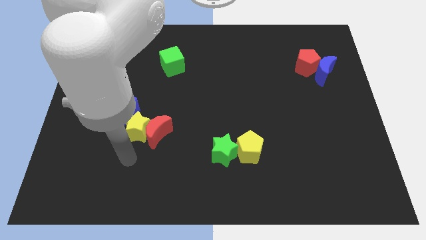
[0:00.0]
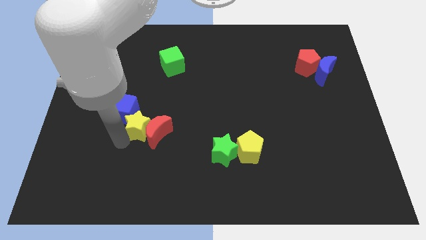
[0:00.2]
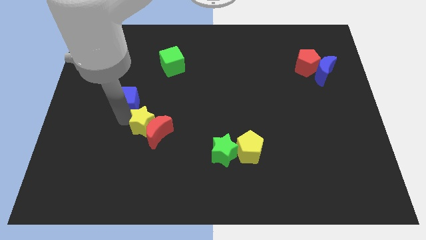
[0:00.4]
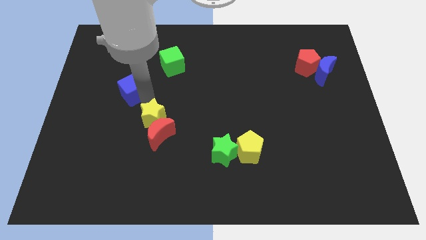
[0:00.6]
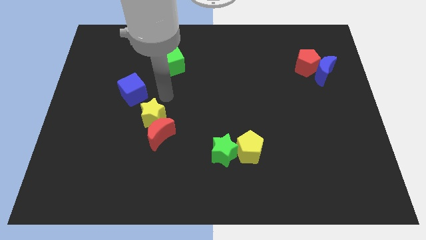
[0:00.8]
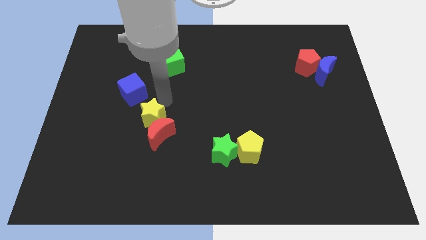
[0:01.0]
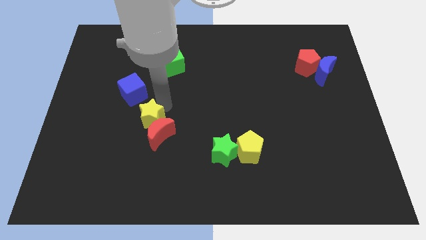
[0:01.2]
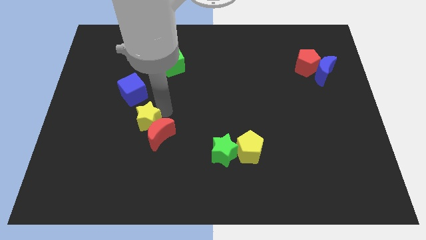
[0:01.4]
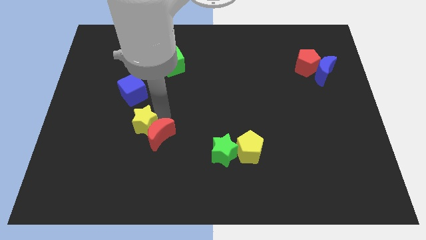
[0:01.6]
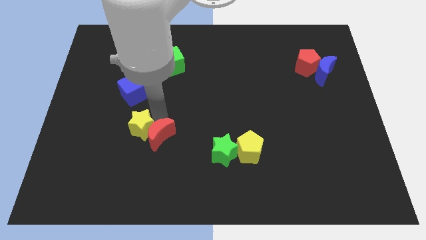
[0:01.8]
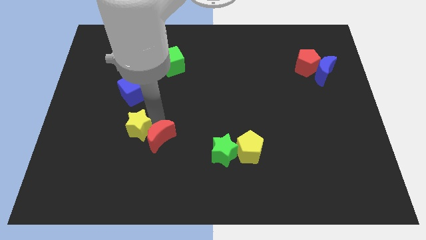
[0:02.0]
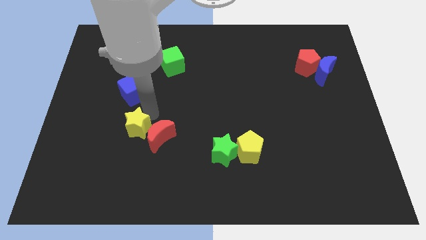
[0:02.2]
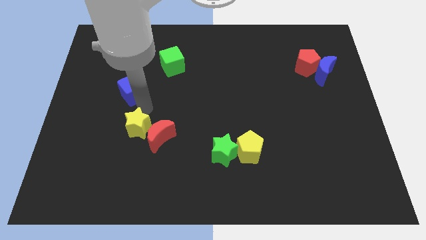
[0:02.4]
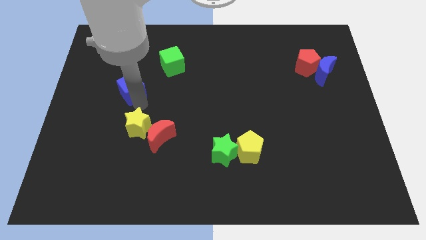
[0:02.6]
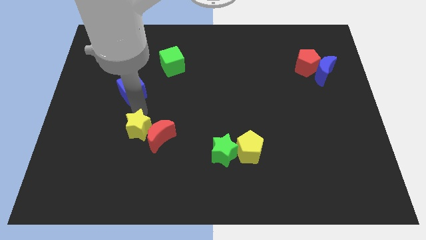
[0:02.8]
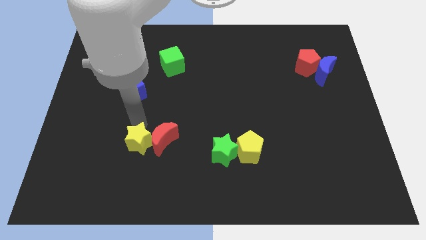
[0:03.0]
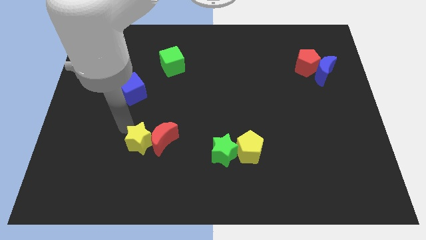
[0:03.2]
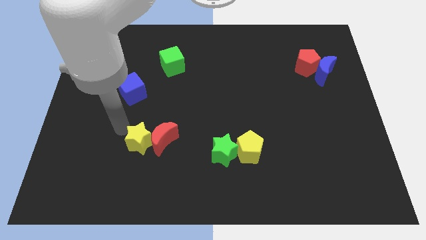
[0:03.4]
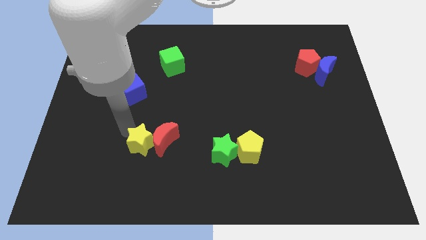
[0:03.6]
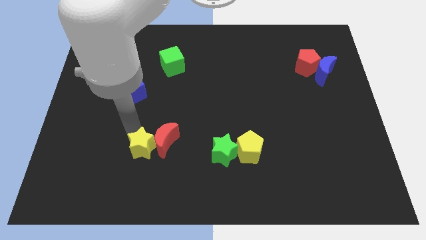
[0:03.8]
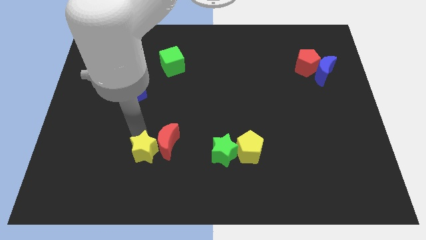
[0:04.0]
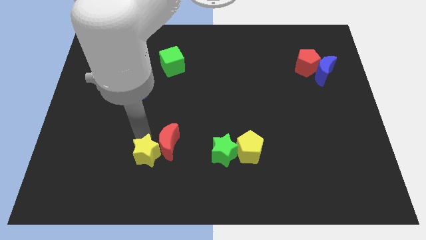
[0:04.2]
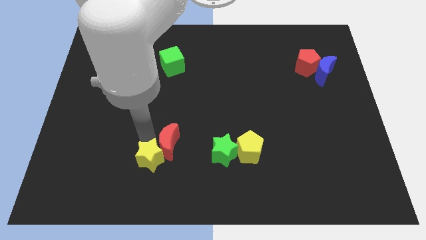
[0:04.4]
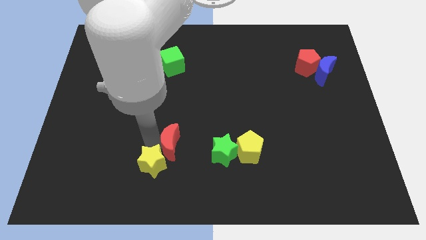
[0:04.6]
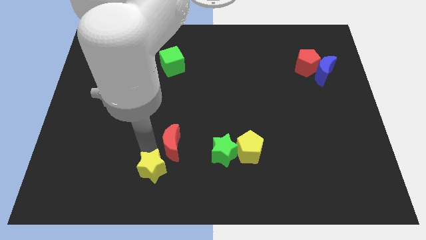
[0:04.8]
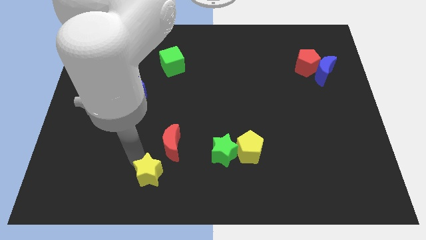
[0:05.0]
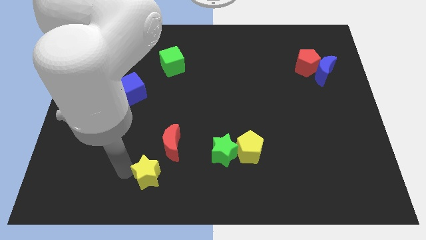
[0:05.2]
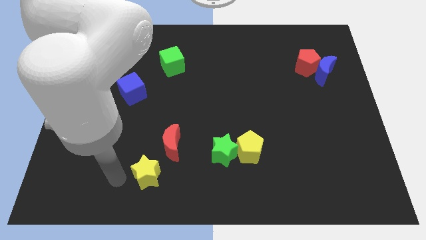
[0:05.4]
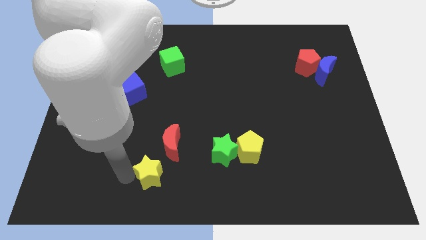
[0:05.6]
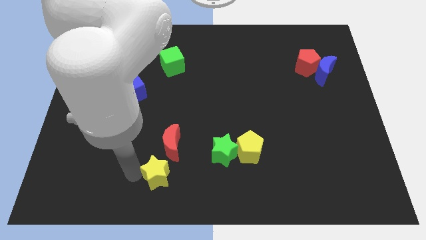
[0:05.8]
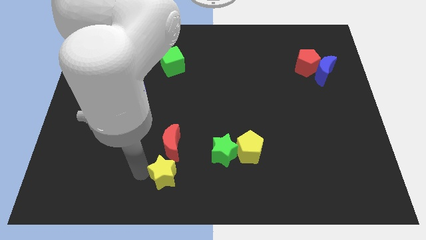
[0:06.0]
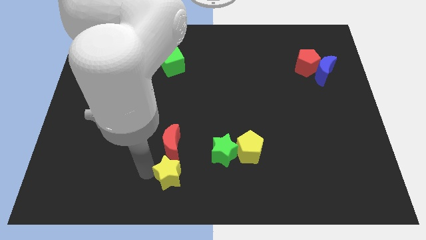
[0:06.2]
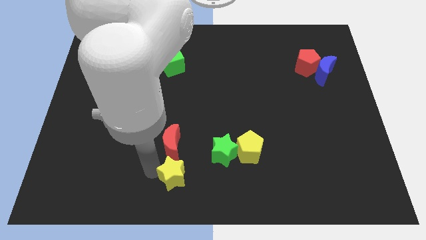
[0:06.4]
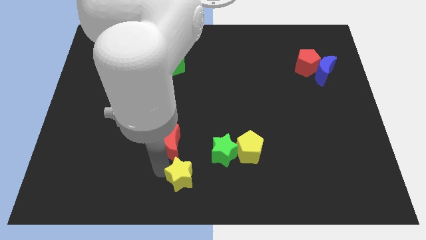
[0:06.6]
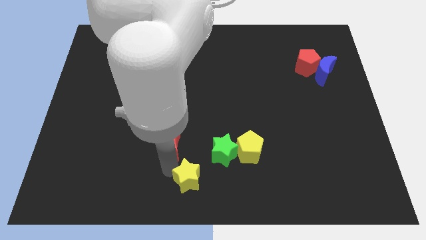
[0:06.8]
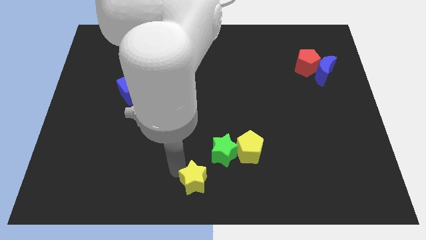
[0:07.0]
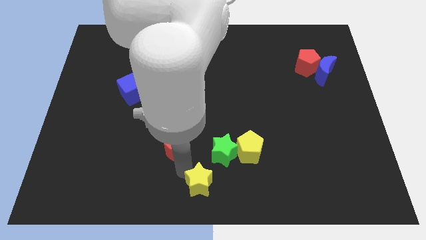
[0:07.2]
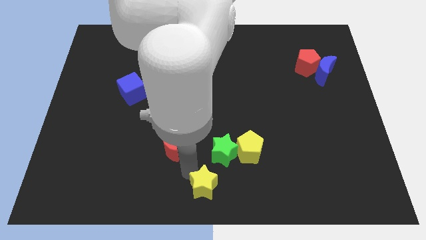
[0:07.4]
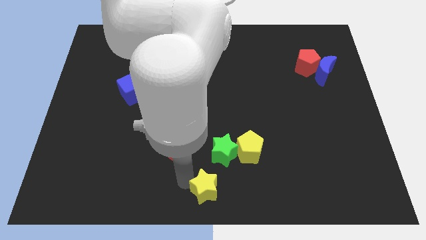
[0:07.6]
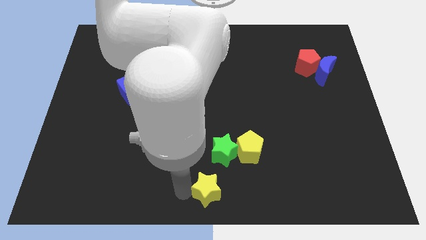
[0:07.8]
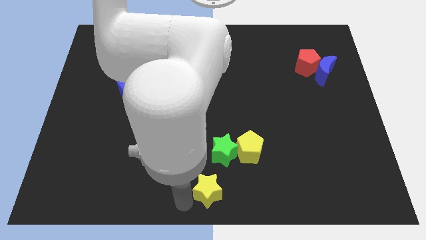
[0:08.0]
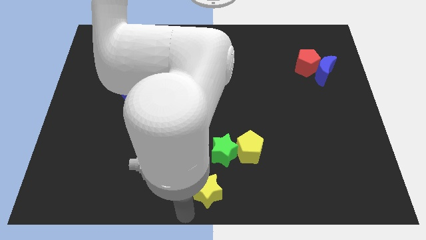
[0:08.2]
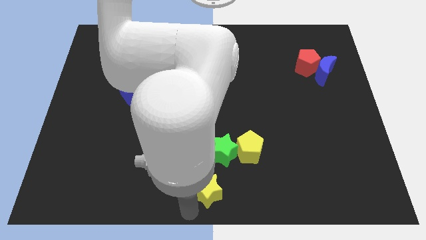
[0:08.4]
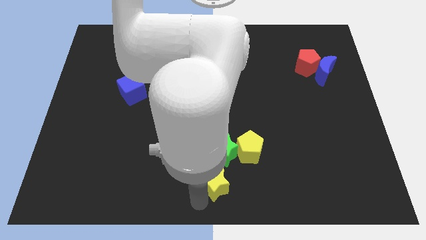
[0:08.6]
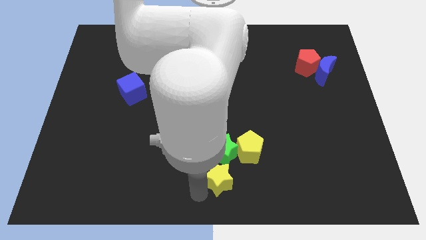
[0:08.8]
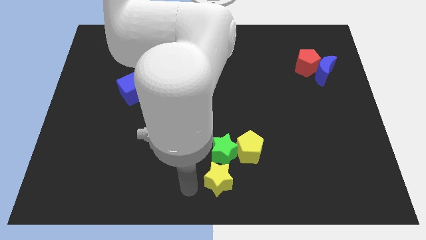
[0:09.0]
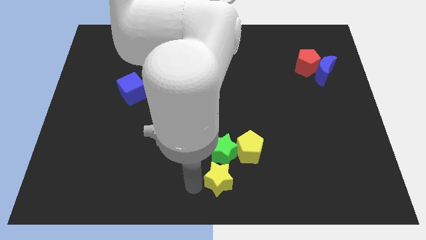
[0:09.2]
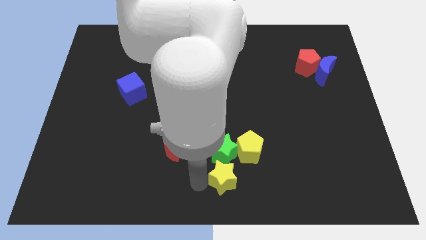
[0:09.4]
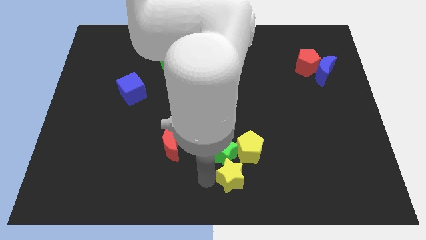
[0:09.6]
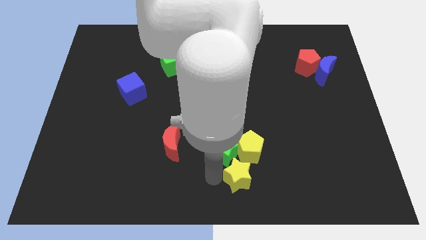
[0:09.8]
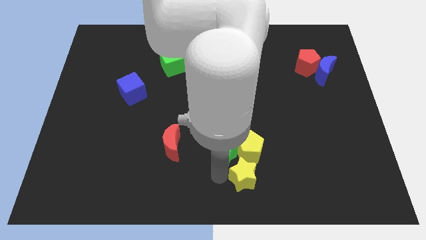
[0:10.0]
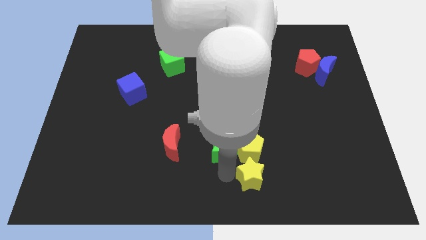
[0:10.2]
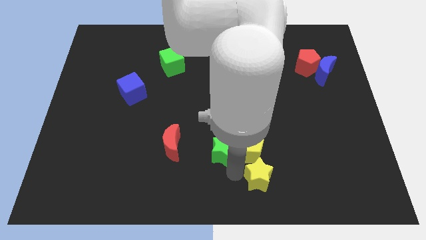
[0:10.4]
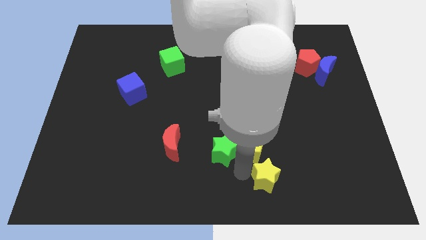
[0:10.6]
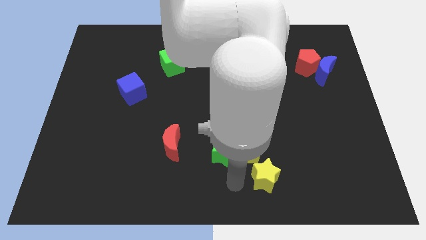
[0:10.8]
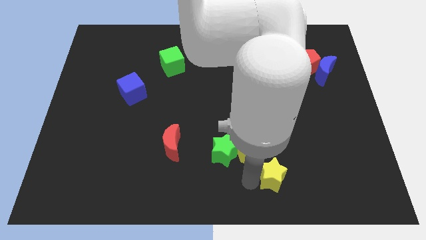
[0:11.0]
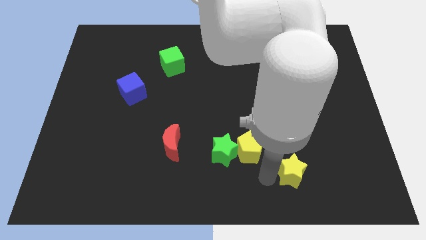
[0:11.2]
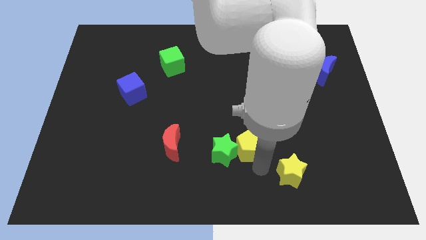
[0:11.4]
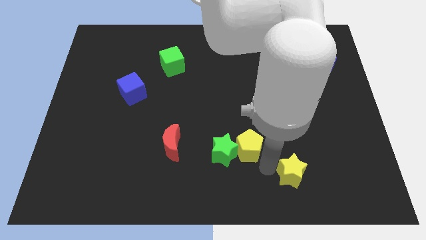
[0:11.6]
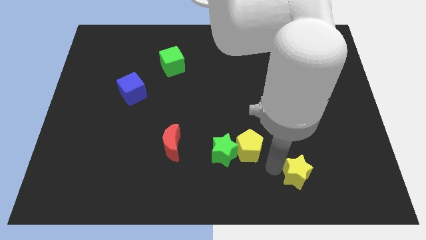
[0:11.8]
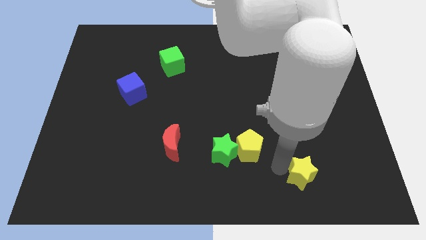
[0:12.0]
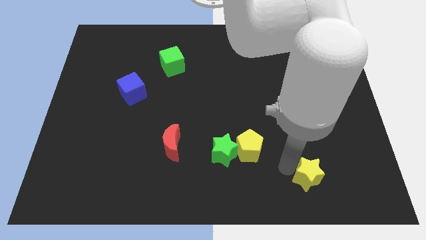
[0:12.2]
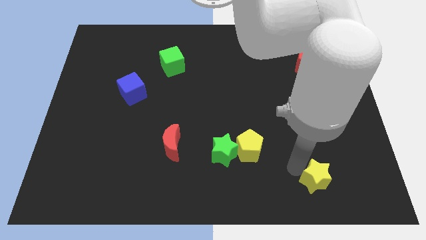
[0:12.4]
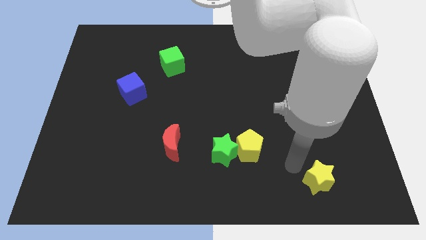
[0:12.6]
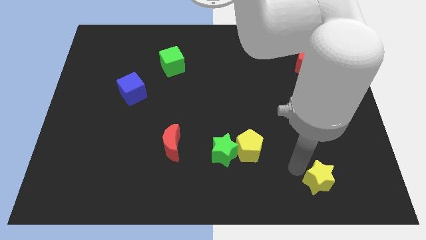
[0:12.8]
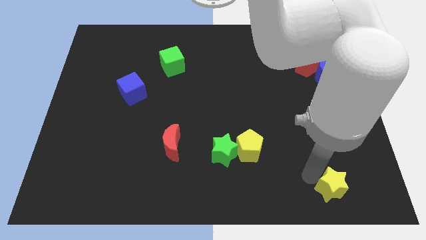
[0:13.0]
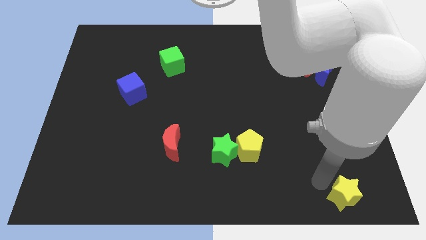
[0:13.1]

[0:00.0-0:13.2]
move the yellow star to the lower right corner
